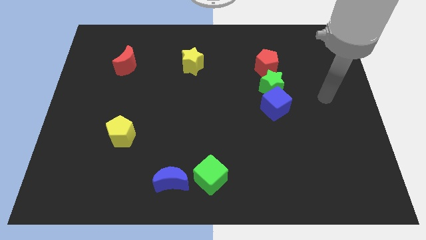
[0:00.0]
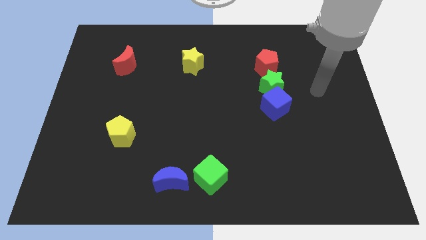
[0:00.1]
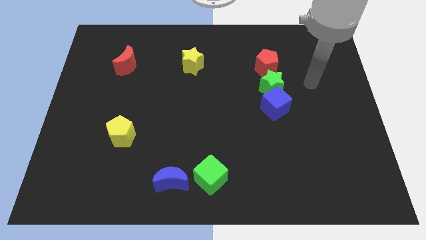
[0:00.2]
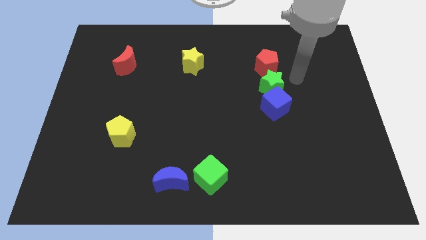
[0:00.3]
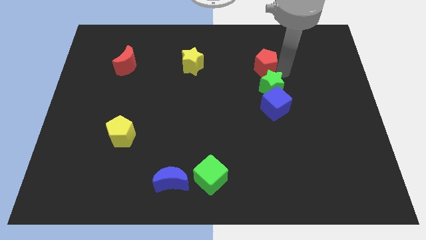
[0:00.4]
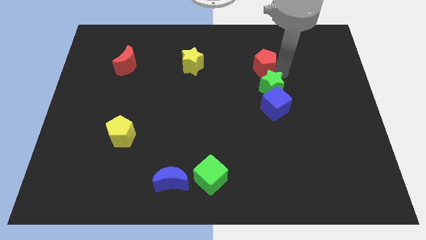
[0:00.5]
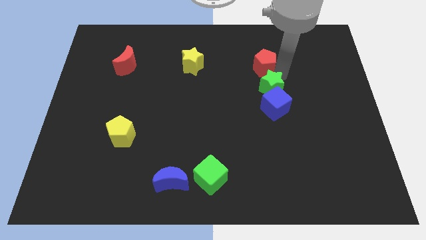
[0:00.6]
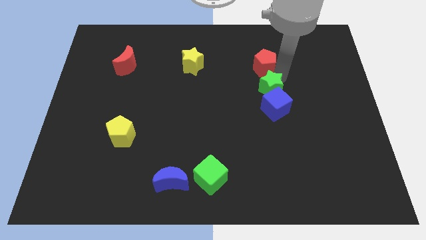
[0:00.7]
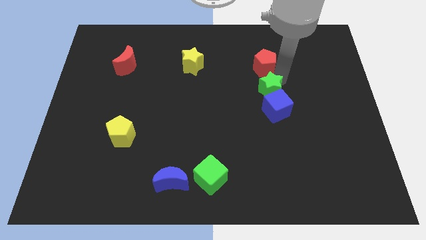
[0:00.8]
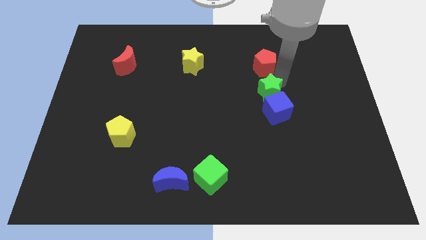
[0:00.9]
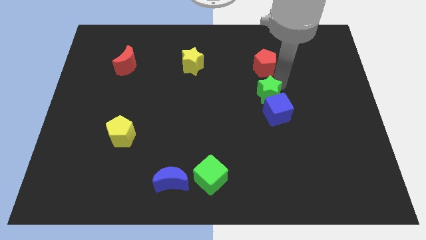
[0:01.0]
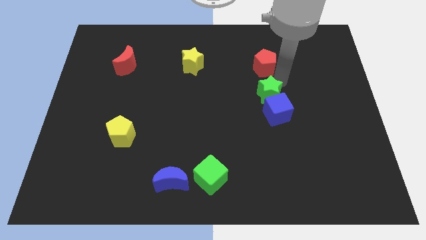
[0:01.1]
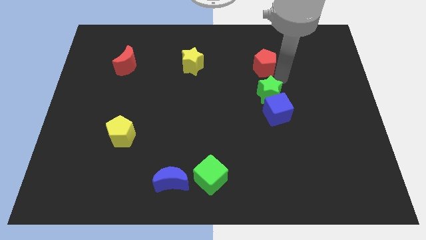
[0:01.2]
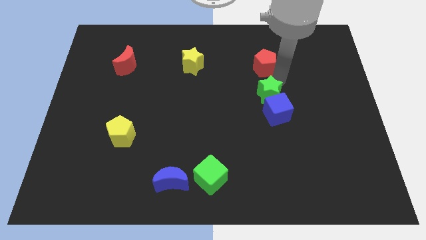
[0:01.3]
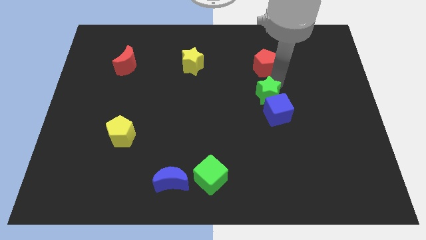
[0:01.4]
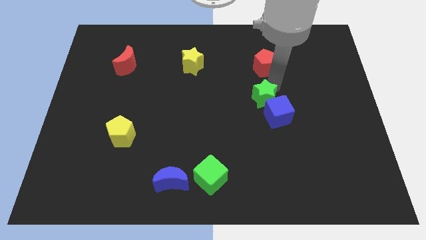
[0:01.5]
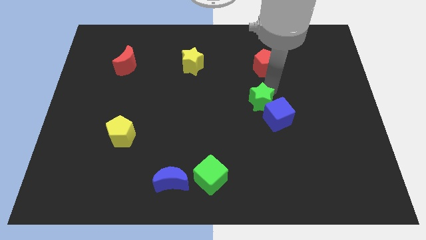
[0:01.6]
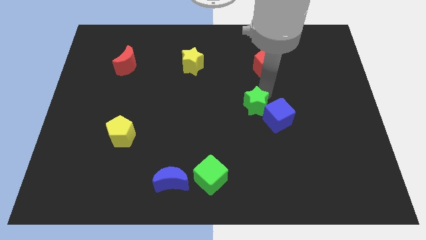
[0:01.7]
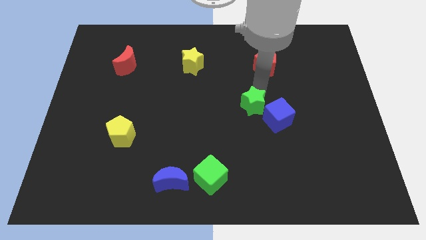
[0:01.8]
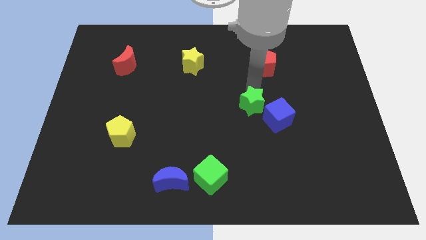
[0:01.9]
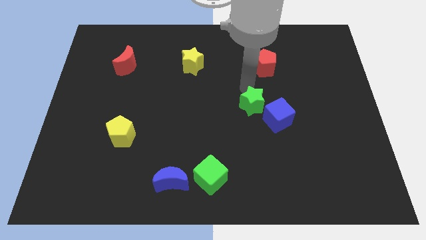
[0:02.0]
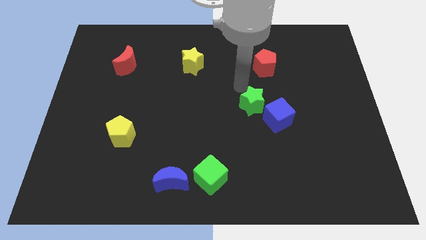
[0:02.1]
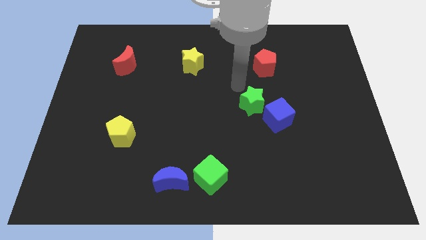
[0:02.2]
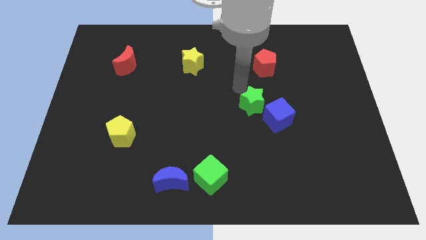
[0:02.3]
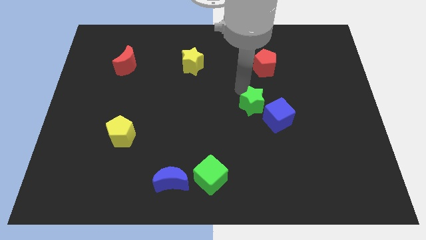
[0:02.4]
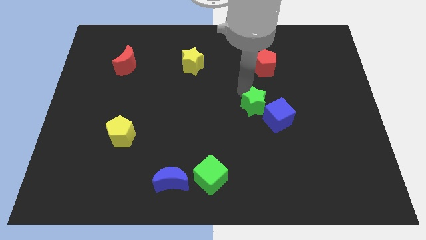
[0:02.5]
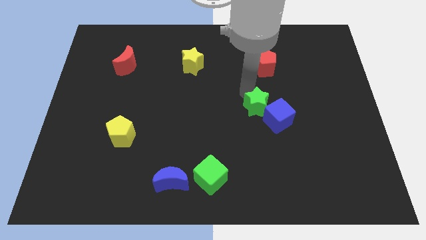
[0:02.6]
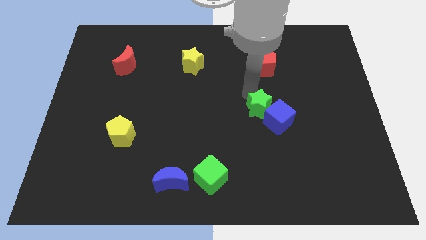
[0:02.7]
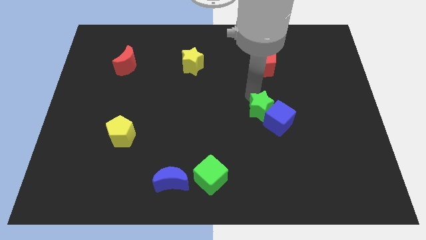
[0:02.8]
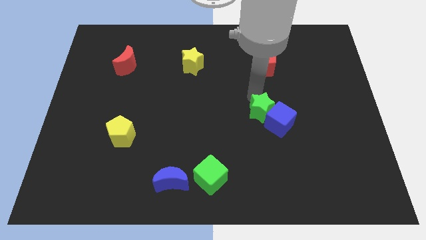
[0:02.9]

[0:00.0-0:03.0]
slightly move the green star downwards

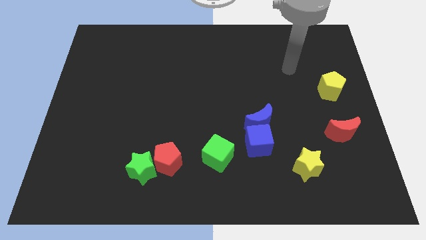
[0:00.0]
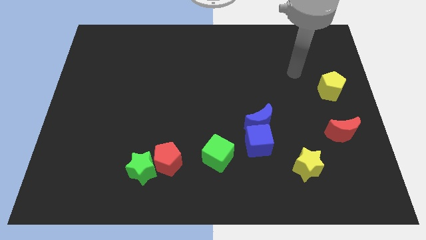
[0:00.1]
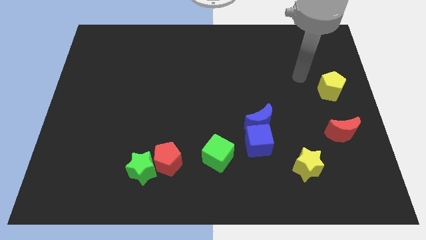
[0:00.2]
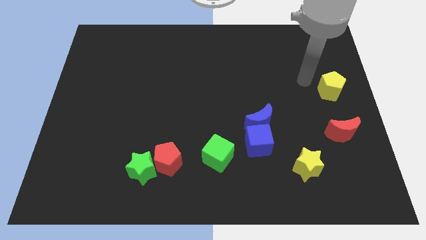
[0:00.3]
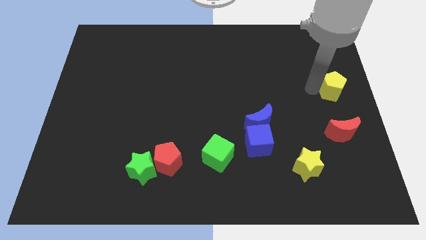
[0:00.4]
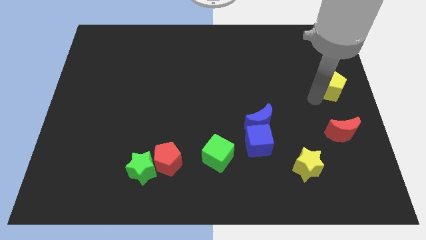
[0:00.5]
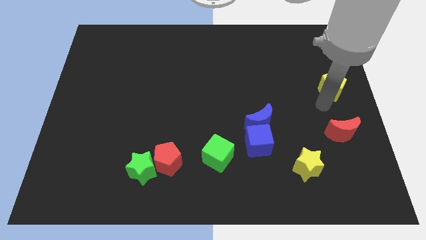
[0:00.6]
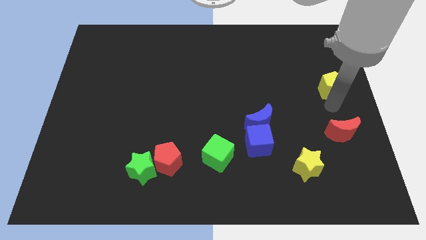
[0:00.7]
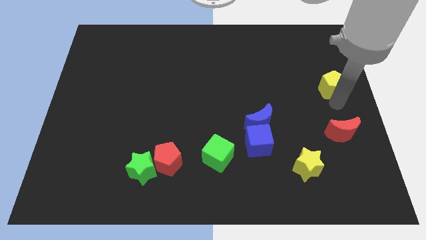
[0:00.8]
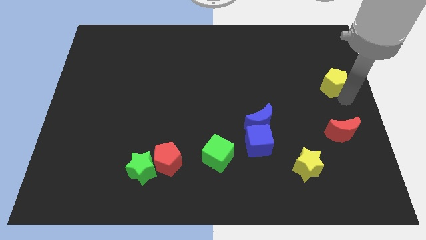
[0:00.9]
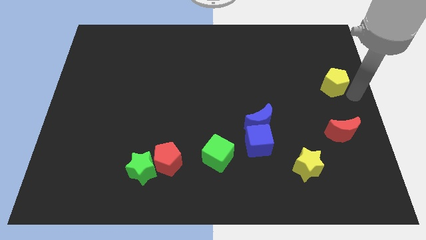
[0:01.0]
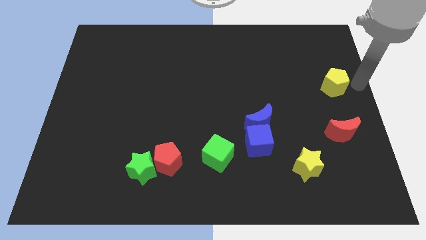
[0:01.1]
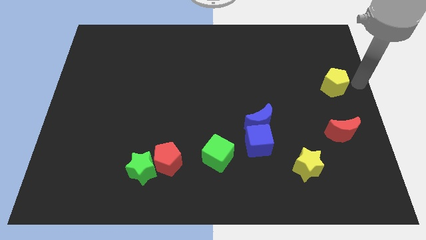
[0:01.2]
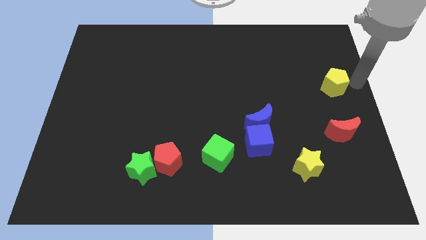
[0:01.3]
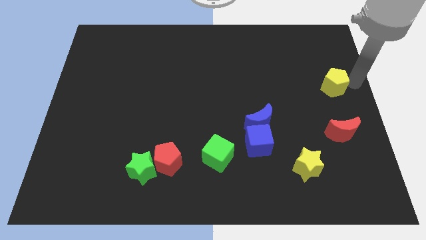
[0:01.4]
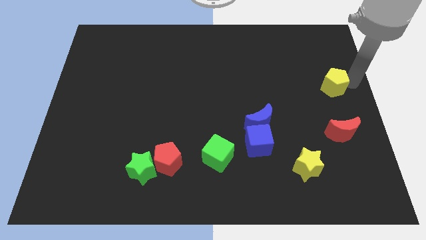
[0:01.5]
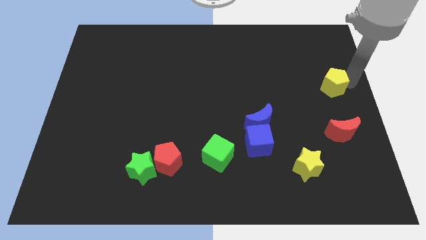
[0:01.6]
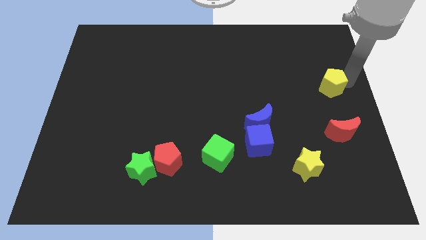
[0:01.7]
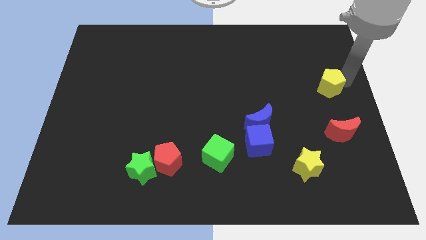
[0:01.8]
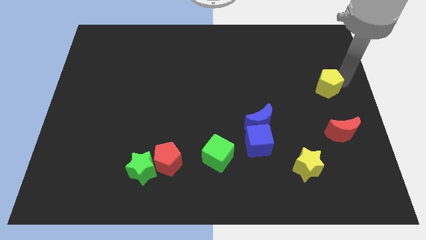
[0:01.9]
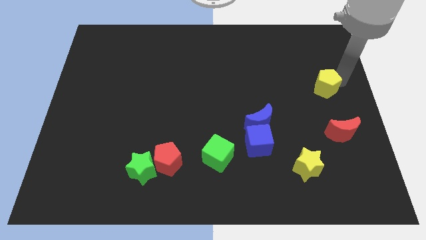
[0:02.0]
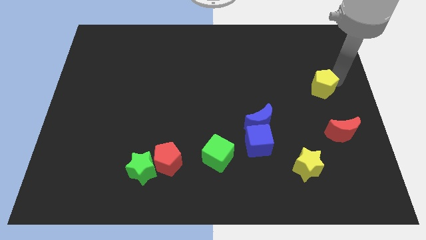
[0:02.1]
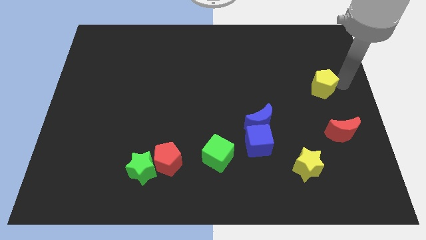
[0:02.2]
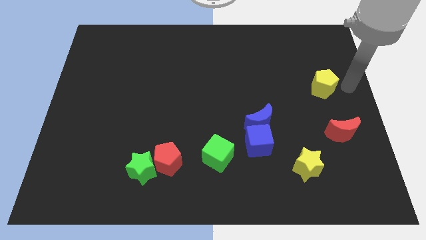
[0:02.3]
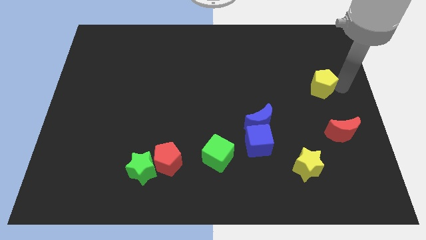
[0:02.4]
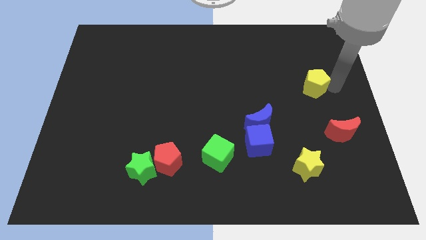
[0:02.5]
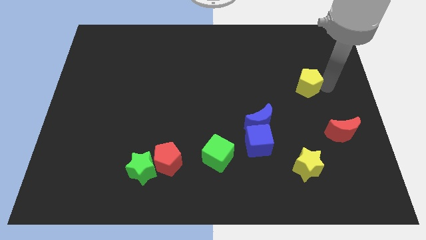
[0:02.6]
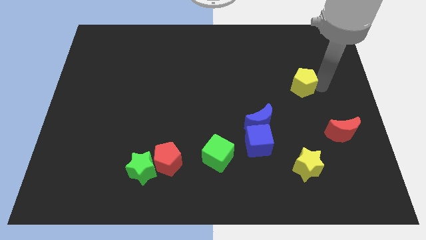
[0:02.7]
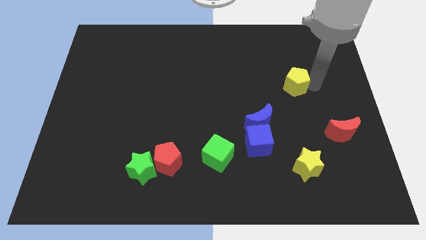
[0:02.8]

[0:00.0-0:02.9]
push the yellow pentagon left a little bit

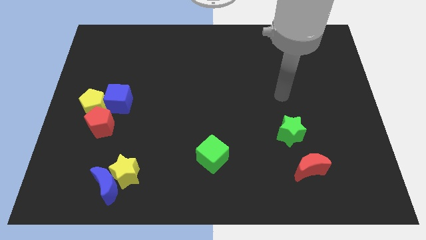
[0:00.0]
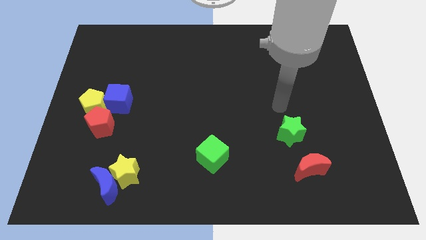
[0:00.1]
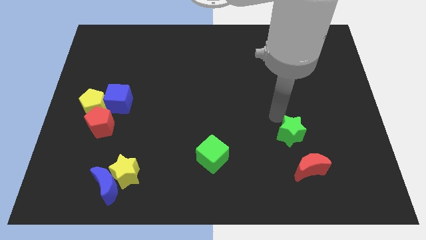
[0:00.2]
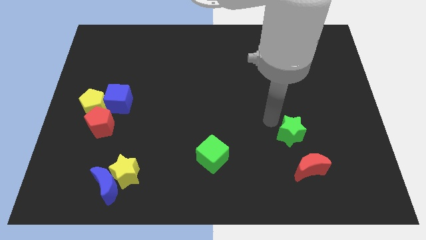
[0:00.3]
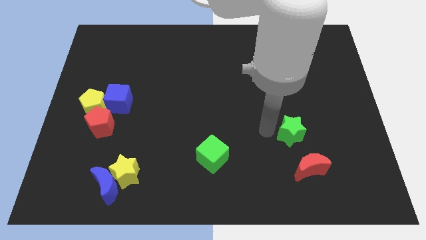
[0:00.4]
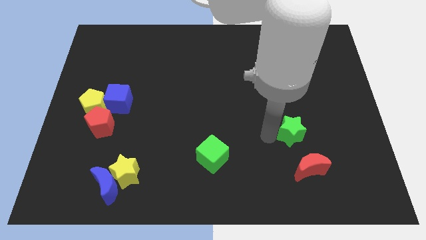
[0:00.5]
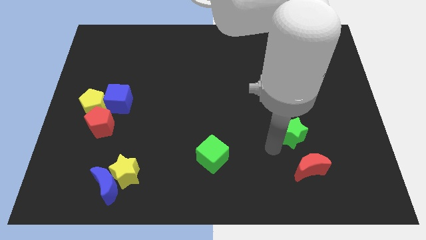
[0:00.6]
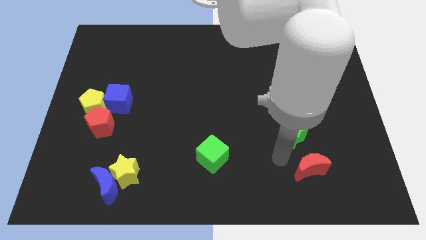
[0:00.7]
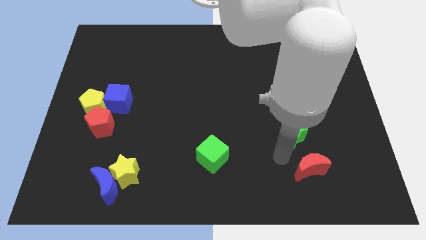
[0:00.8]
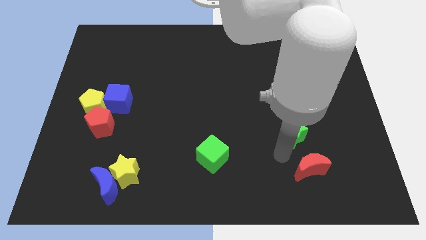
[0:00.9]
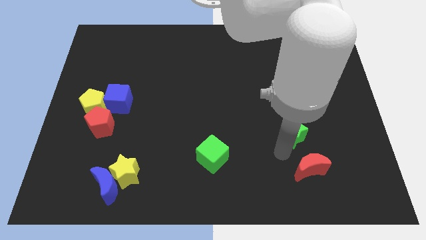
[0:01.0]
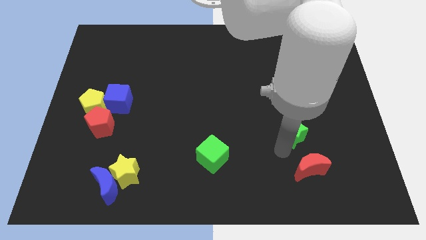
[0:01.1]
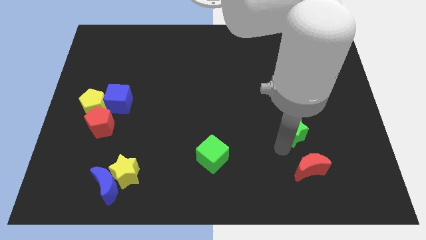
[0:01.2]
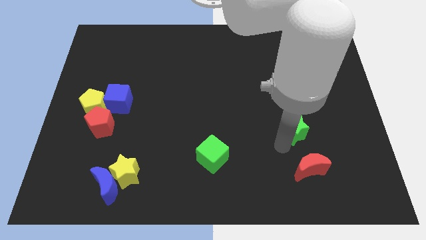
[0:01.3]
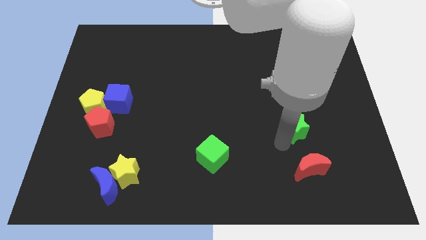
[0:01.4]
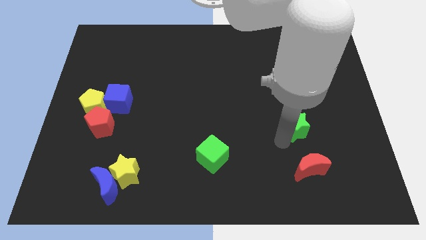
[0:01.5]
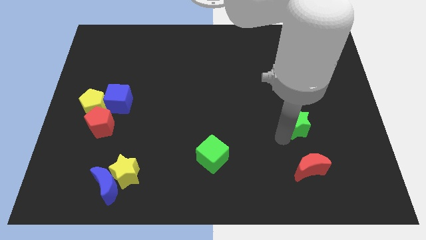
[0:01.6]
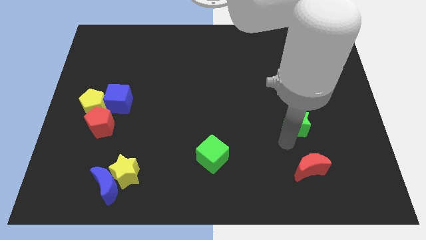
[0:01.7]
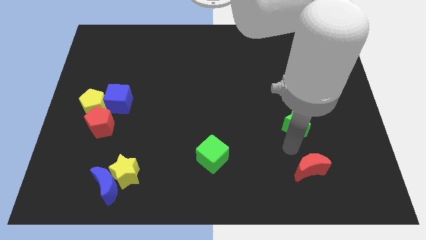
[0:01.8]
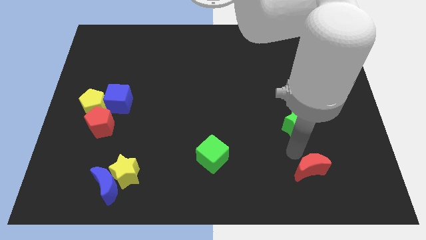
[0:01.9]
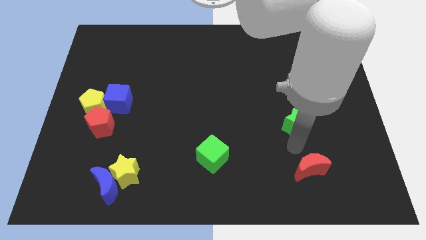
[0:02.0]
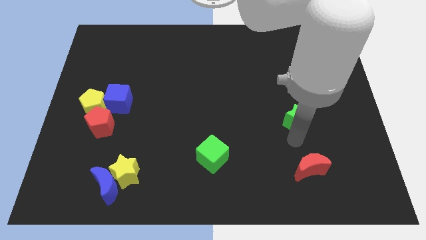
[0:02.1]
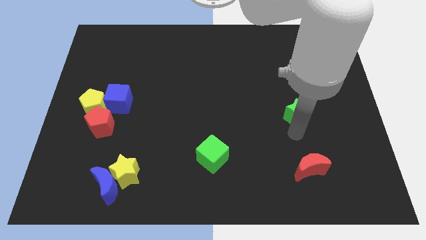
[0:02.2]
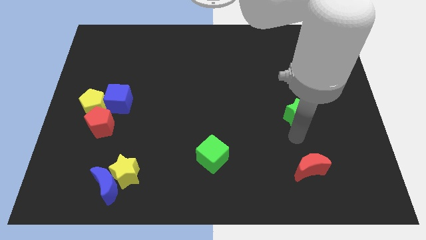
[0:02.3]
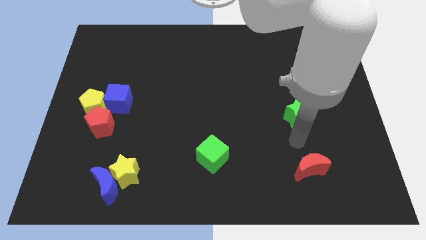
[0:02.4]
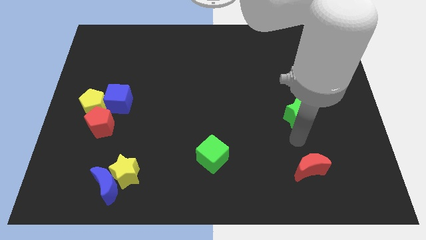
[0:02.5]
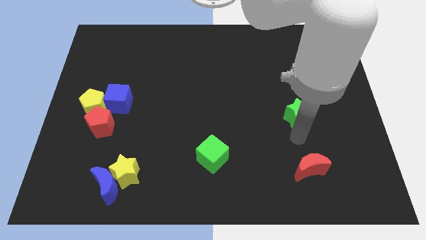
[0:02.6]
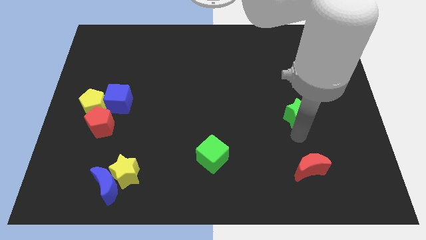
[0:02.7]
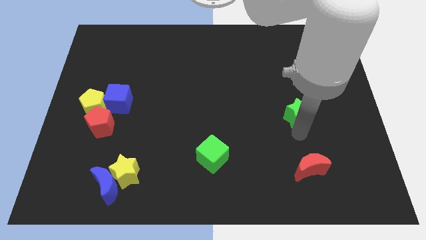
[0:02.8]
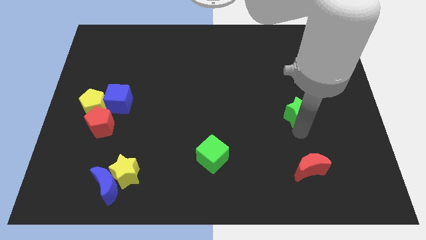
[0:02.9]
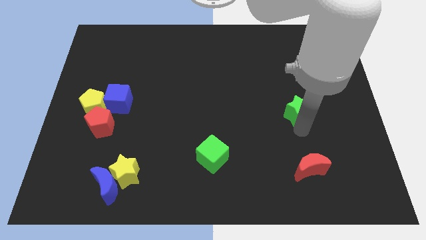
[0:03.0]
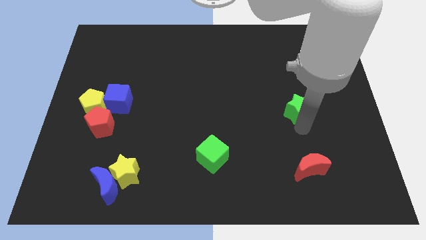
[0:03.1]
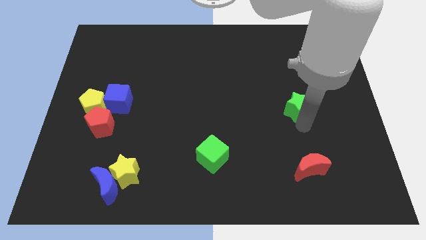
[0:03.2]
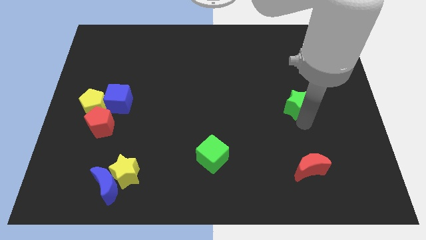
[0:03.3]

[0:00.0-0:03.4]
move the green star somewhat up
